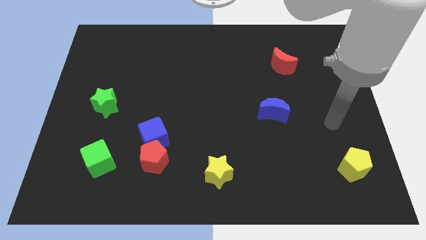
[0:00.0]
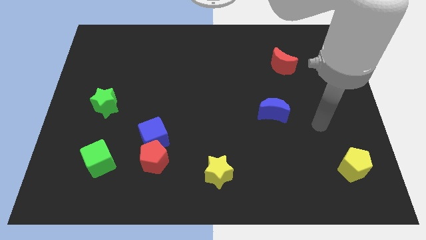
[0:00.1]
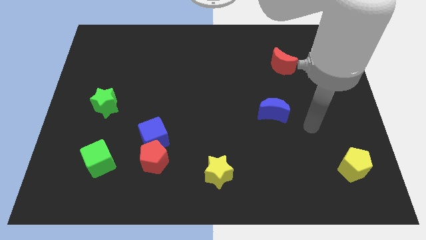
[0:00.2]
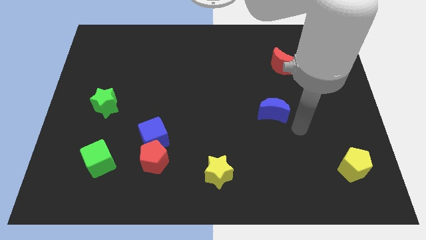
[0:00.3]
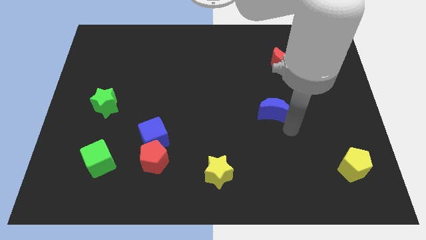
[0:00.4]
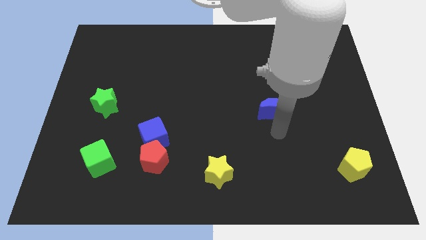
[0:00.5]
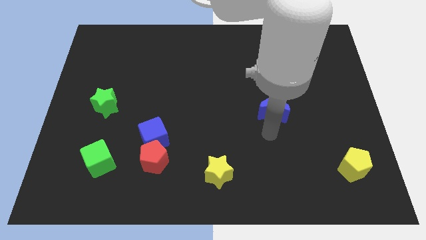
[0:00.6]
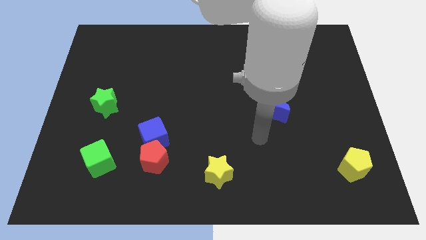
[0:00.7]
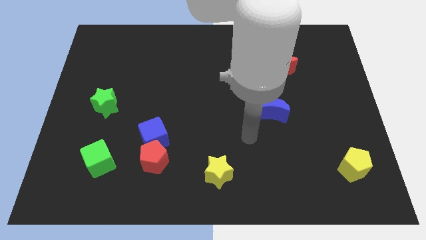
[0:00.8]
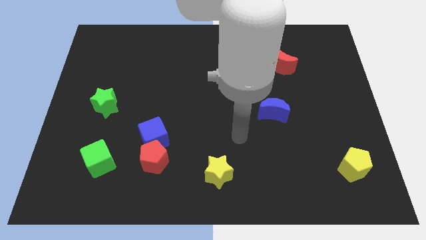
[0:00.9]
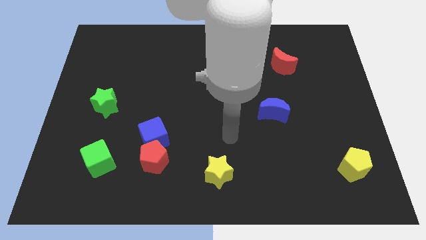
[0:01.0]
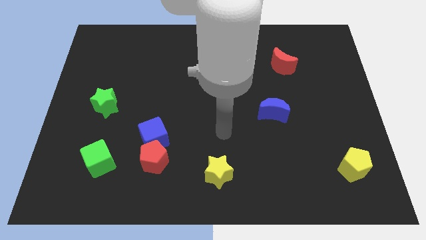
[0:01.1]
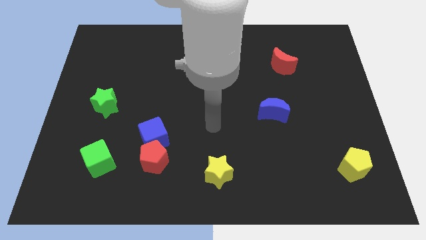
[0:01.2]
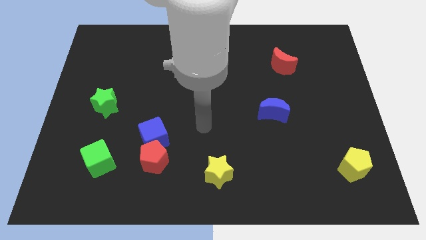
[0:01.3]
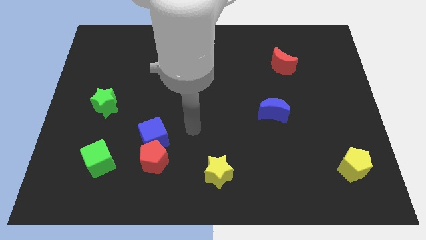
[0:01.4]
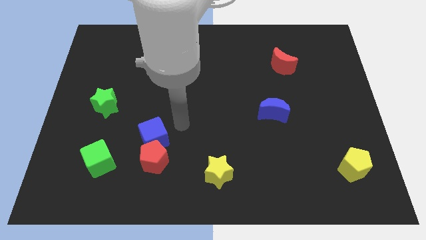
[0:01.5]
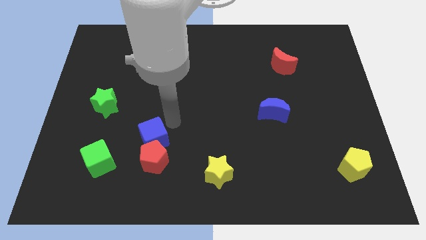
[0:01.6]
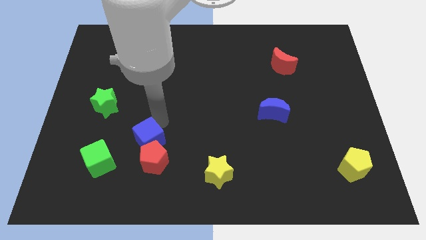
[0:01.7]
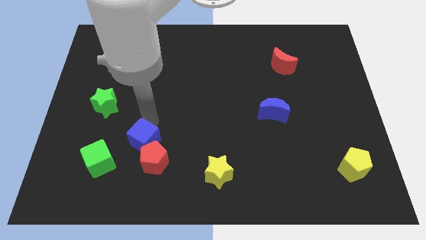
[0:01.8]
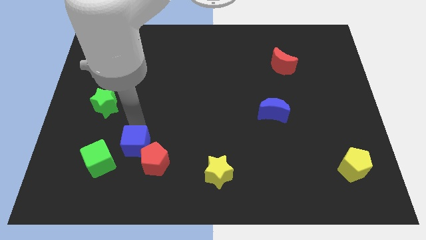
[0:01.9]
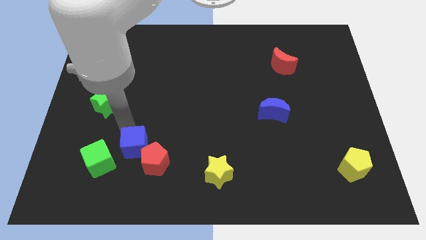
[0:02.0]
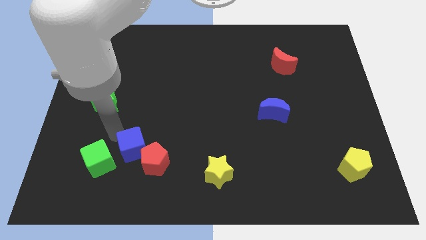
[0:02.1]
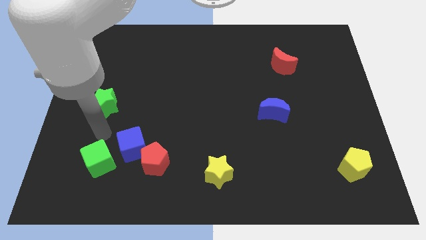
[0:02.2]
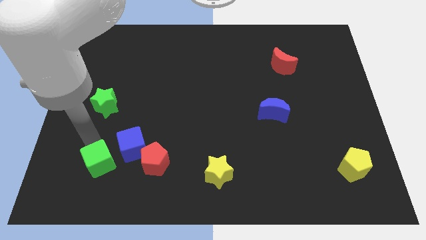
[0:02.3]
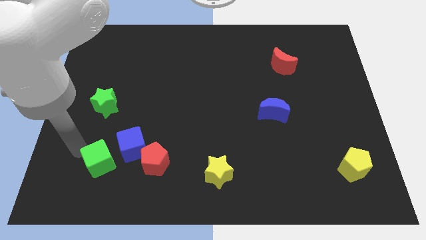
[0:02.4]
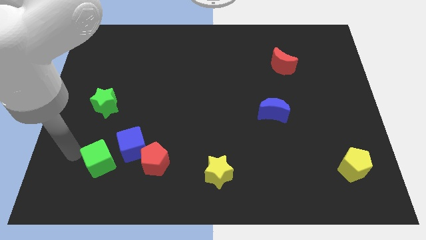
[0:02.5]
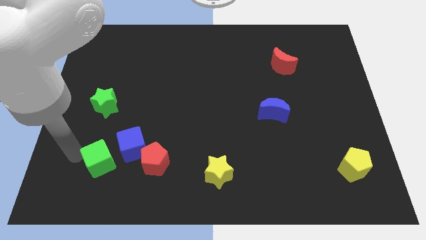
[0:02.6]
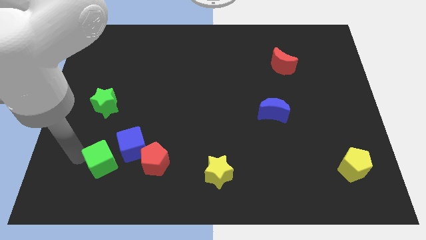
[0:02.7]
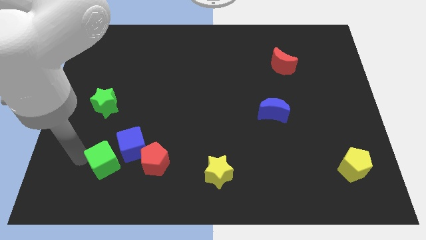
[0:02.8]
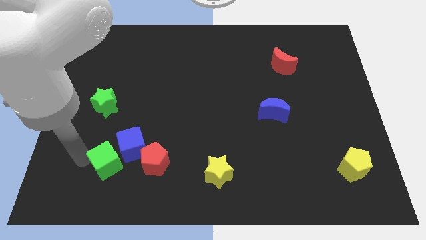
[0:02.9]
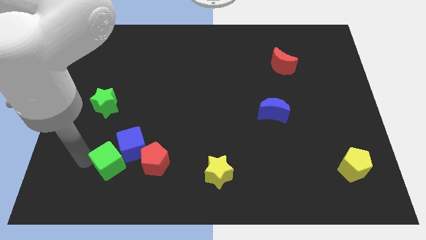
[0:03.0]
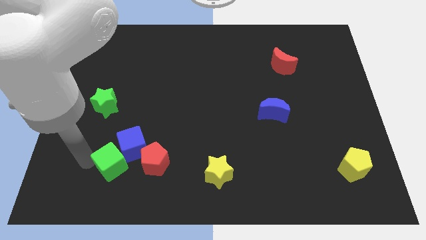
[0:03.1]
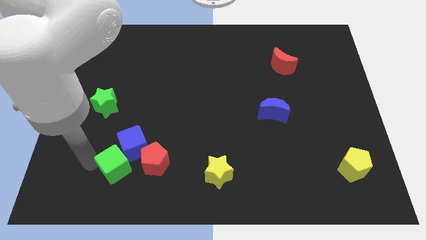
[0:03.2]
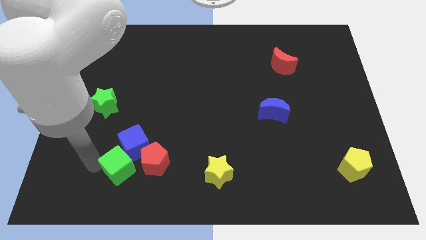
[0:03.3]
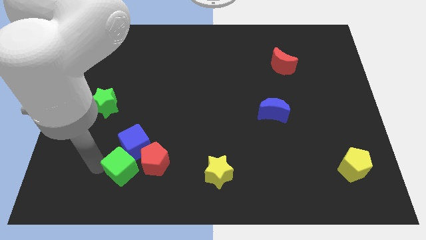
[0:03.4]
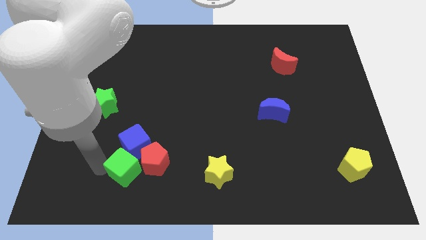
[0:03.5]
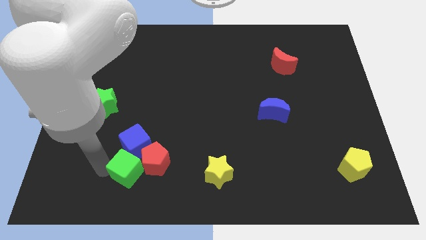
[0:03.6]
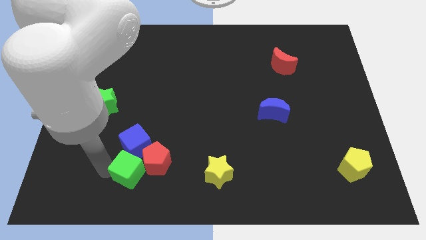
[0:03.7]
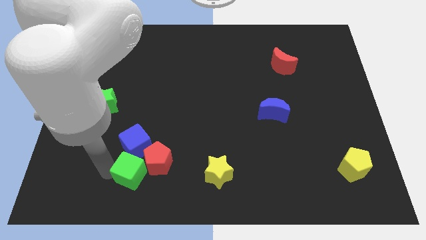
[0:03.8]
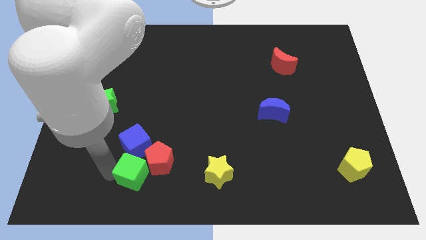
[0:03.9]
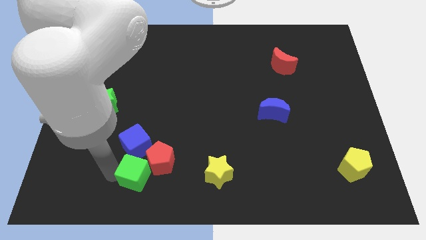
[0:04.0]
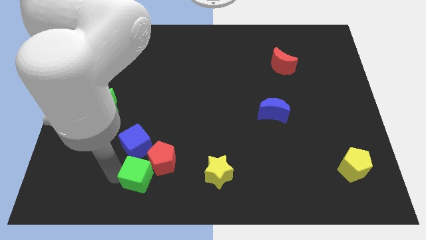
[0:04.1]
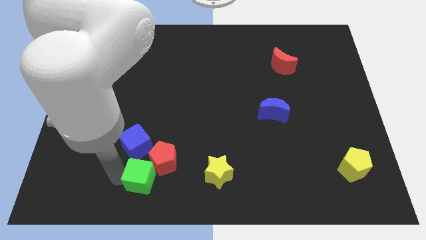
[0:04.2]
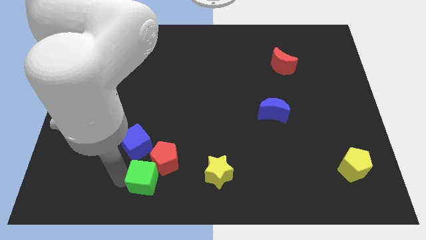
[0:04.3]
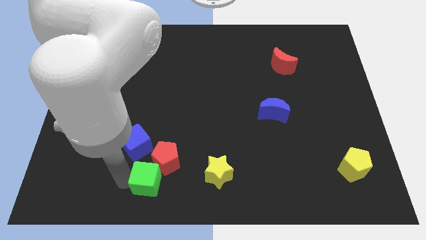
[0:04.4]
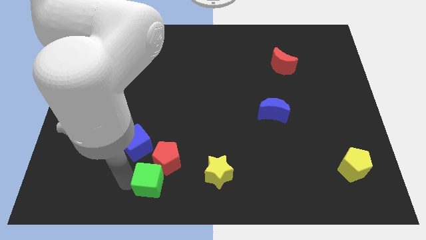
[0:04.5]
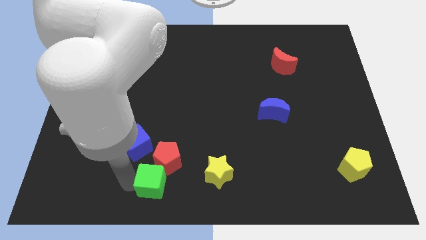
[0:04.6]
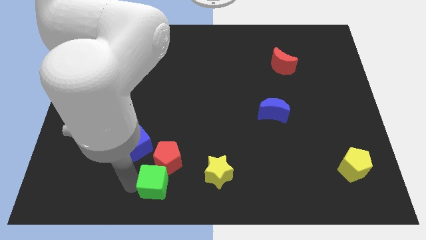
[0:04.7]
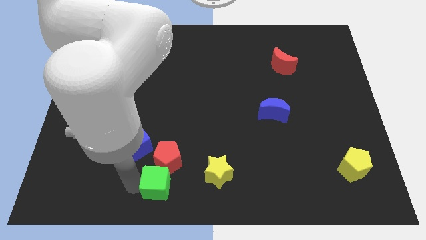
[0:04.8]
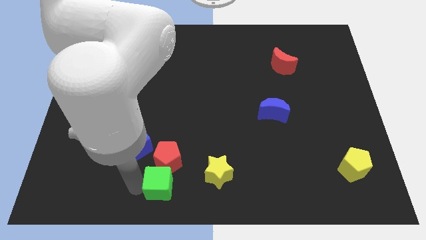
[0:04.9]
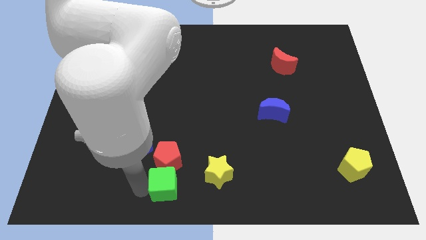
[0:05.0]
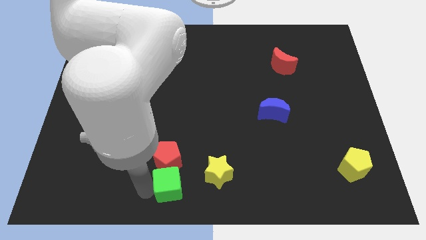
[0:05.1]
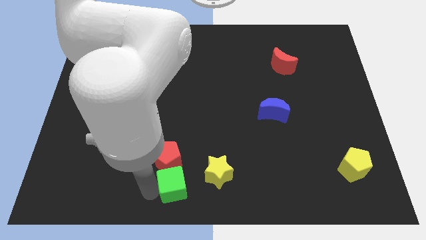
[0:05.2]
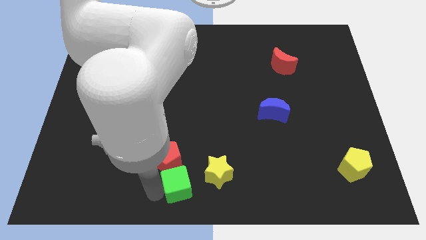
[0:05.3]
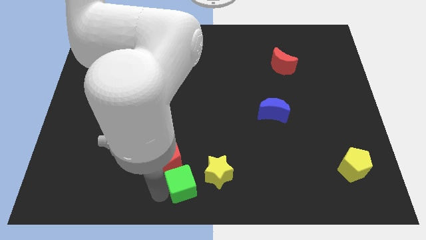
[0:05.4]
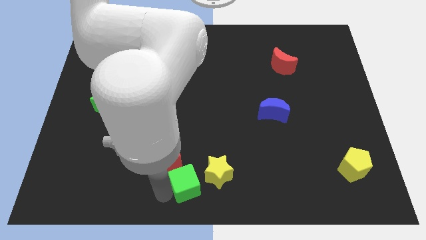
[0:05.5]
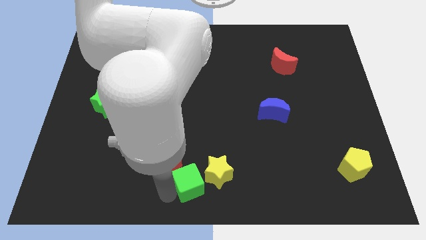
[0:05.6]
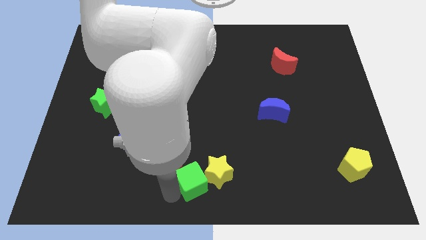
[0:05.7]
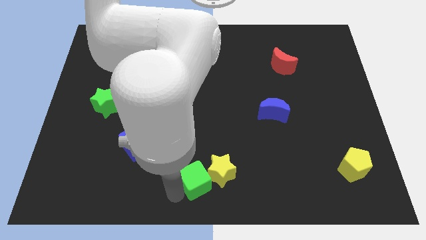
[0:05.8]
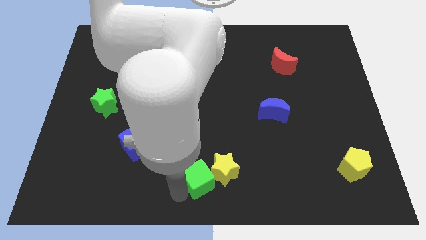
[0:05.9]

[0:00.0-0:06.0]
move the green cube to the right

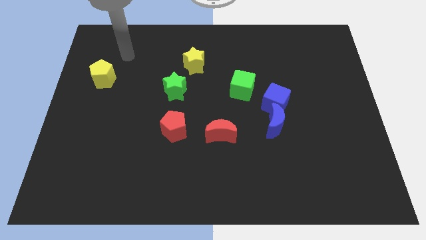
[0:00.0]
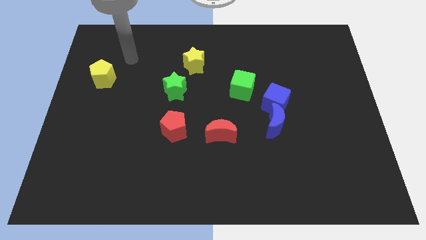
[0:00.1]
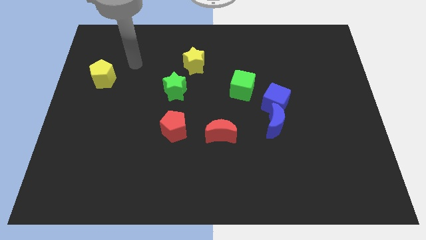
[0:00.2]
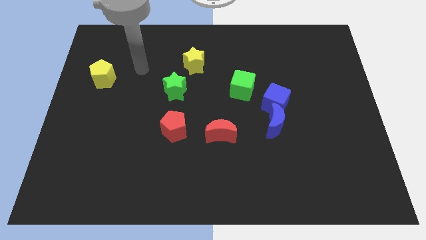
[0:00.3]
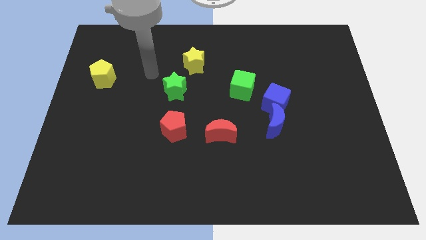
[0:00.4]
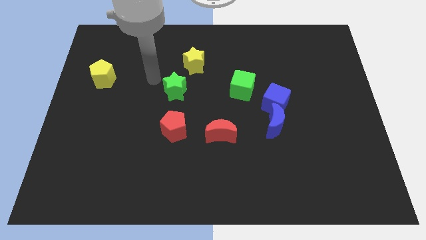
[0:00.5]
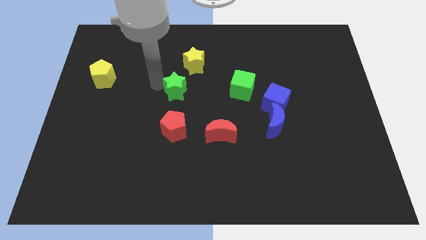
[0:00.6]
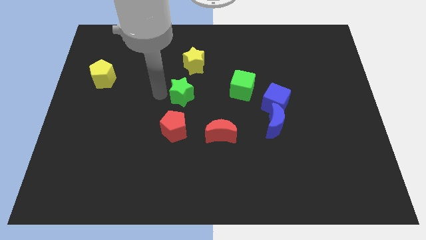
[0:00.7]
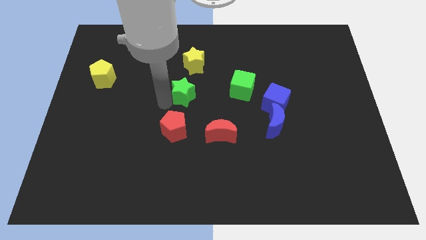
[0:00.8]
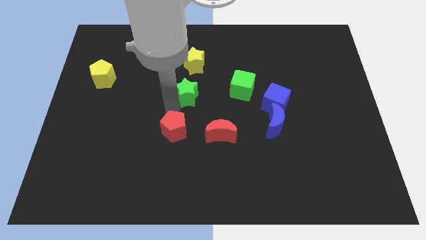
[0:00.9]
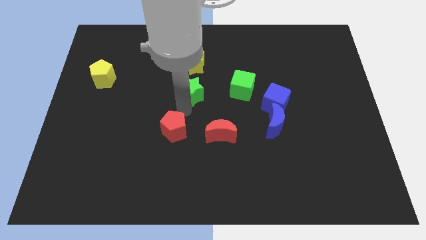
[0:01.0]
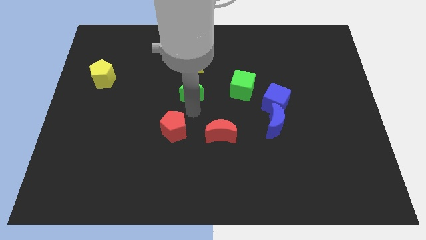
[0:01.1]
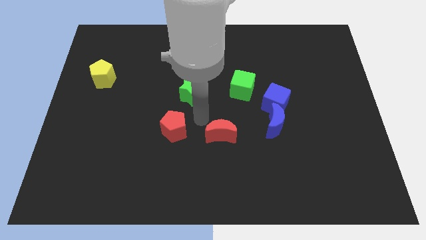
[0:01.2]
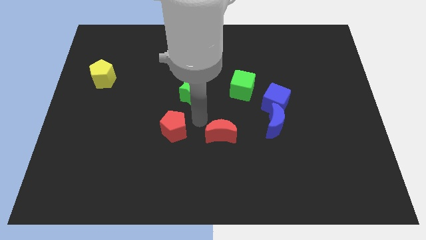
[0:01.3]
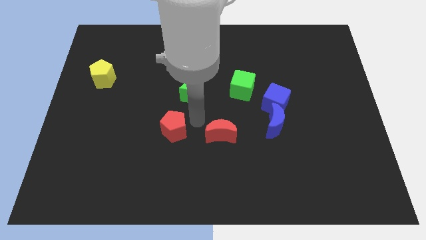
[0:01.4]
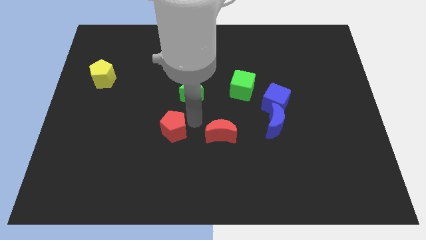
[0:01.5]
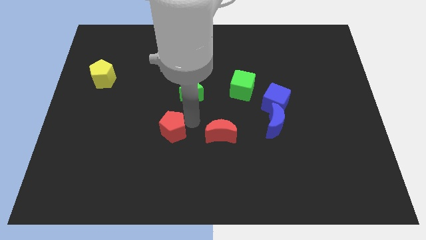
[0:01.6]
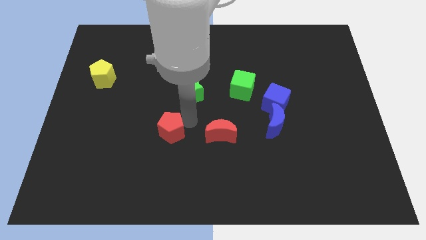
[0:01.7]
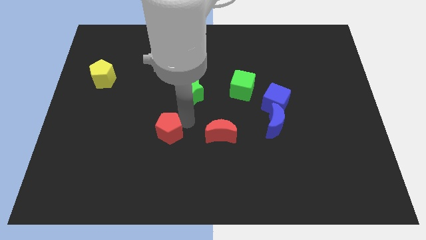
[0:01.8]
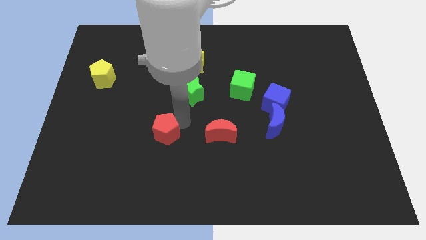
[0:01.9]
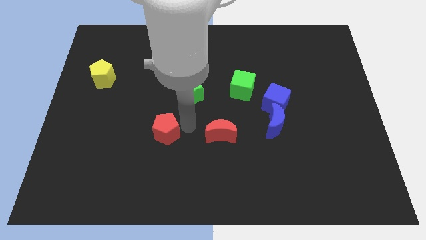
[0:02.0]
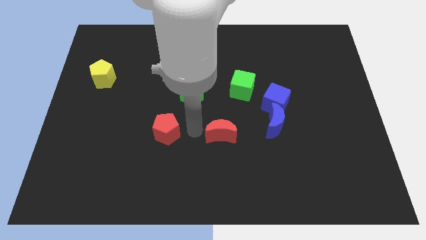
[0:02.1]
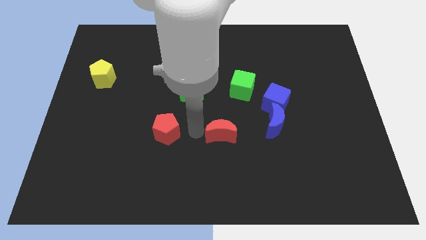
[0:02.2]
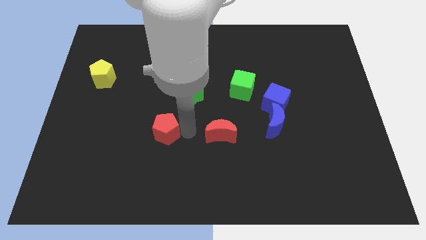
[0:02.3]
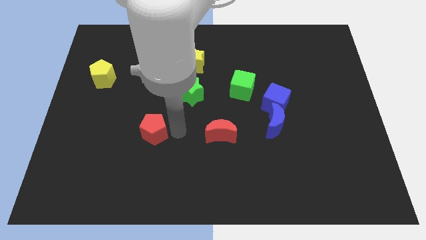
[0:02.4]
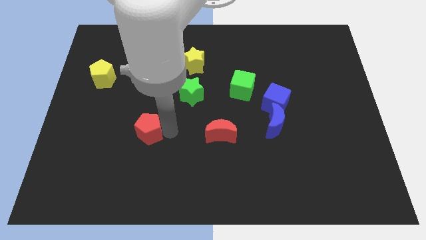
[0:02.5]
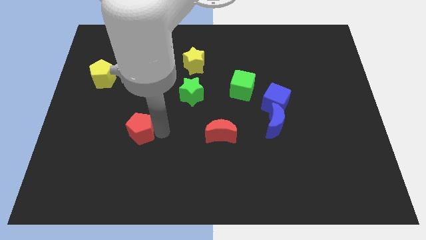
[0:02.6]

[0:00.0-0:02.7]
slightly push the red pentagon to the left
